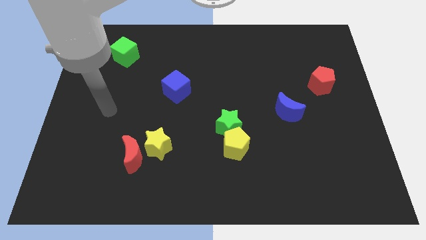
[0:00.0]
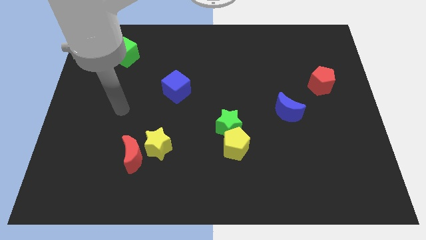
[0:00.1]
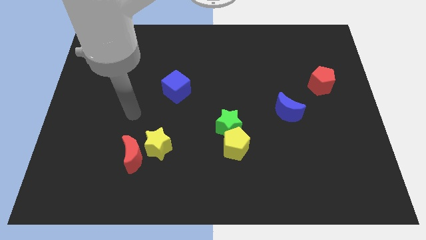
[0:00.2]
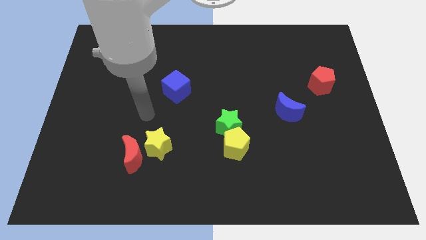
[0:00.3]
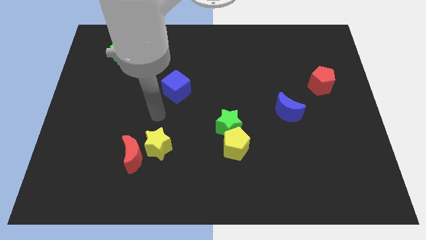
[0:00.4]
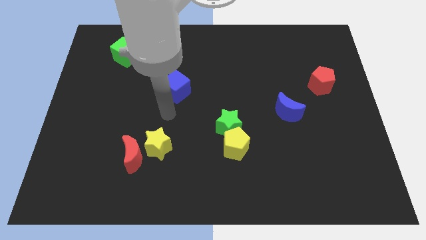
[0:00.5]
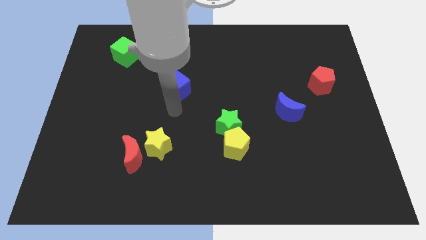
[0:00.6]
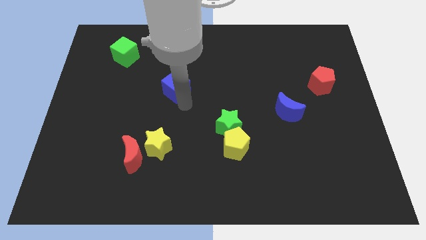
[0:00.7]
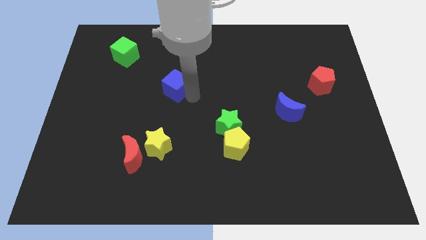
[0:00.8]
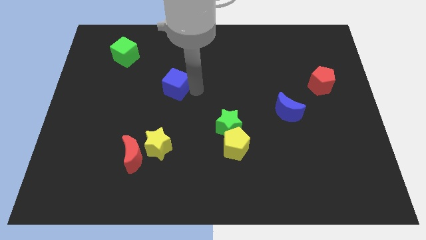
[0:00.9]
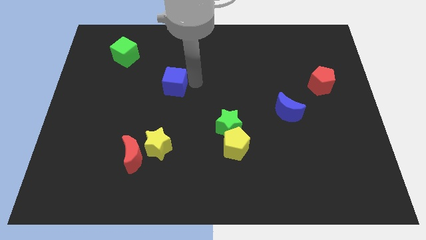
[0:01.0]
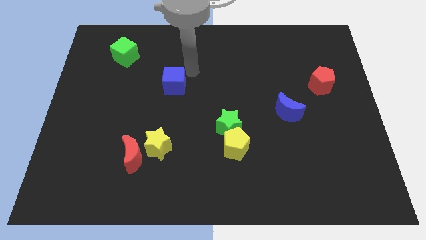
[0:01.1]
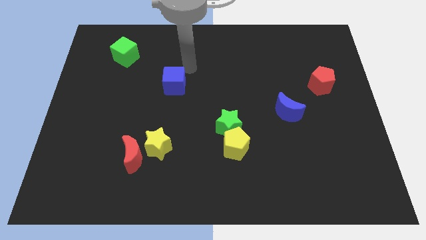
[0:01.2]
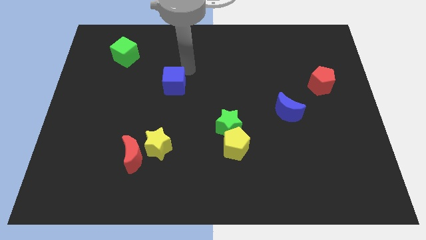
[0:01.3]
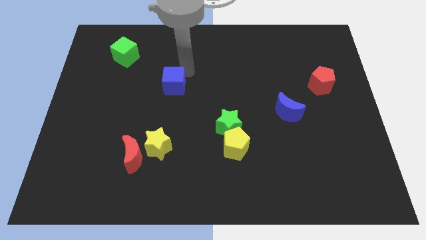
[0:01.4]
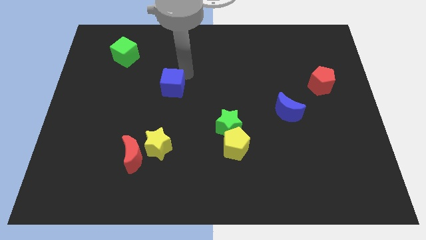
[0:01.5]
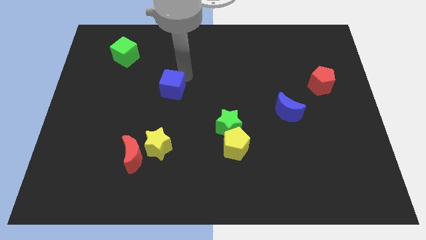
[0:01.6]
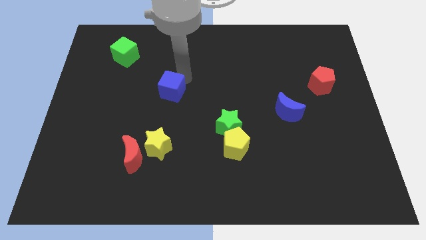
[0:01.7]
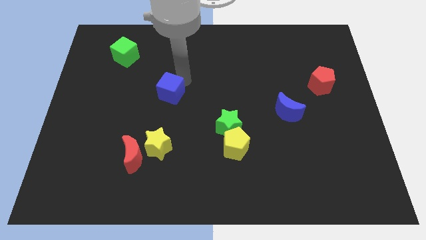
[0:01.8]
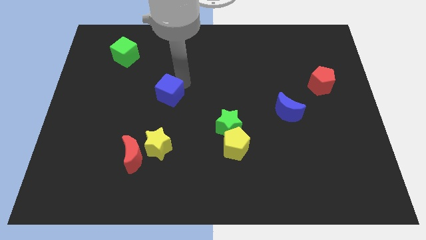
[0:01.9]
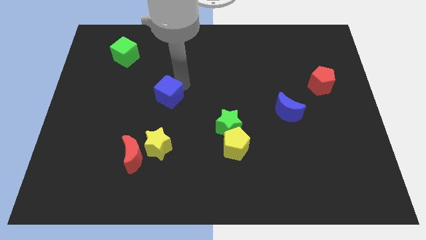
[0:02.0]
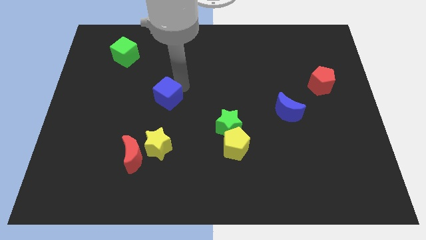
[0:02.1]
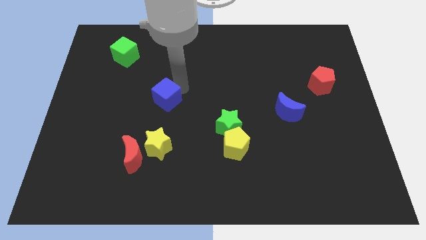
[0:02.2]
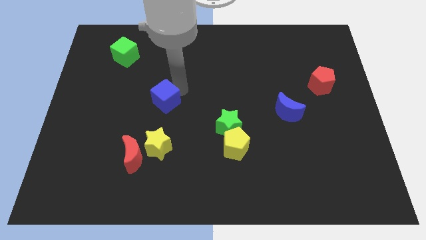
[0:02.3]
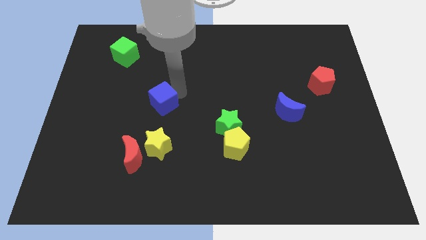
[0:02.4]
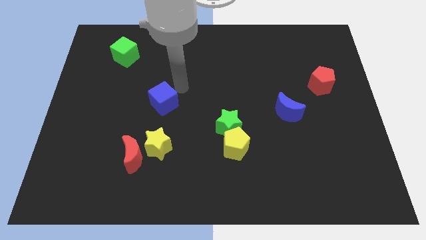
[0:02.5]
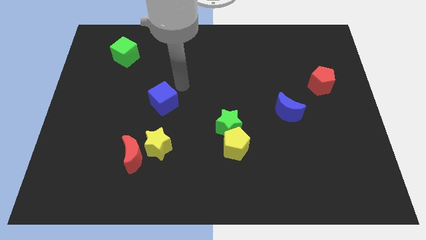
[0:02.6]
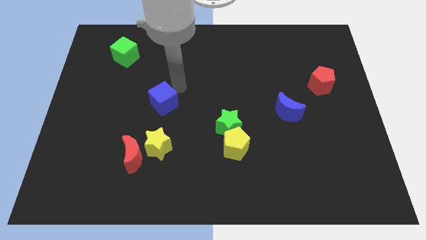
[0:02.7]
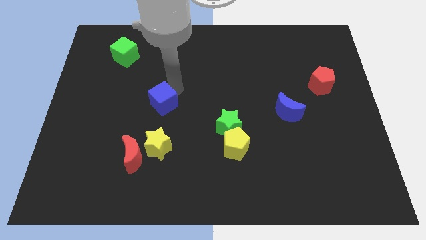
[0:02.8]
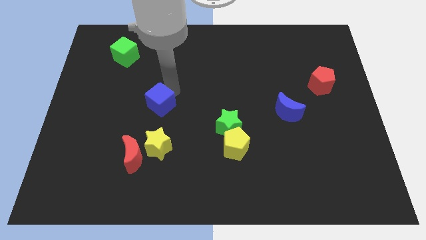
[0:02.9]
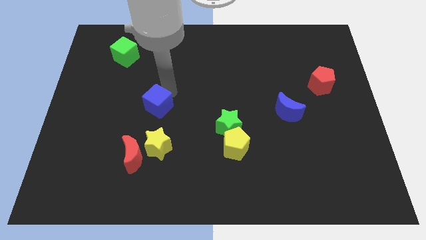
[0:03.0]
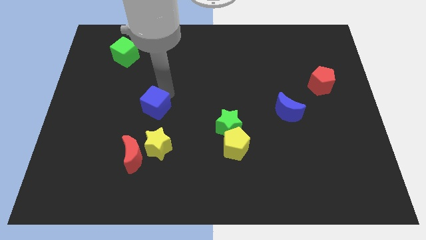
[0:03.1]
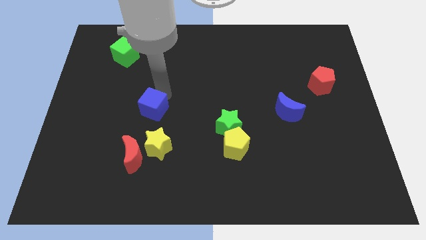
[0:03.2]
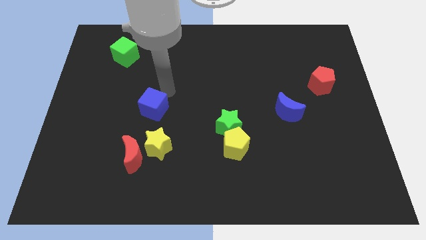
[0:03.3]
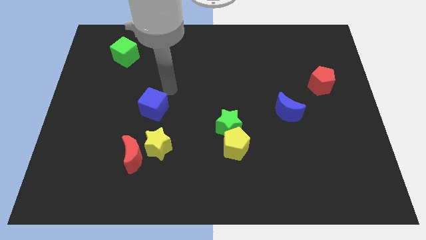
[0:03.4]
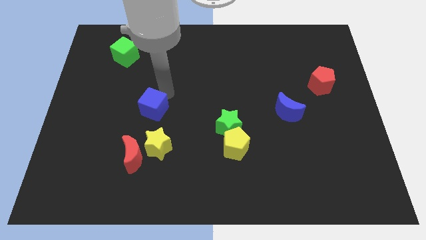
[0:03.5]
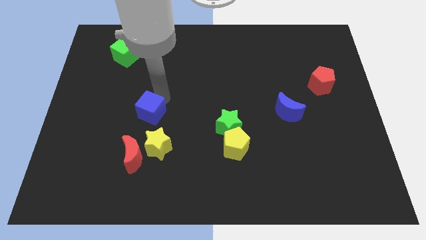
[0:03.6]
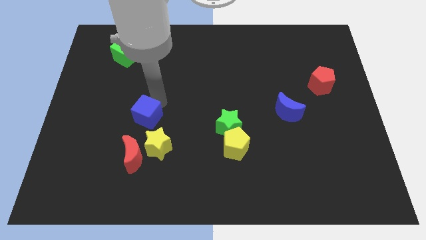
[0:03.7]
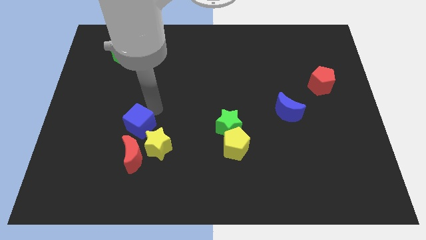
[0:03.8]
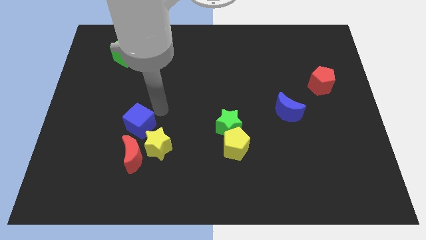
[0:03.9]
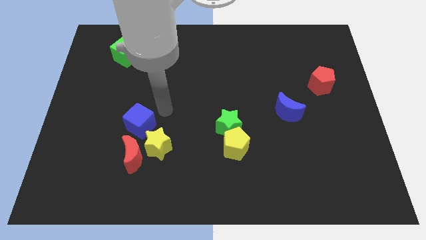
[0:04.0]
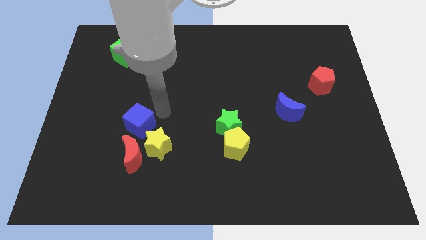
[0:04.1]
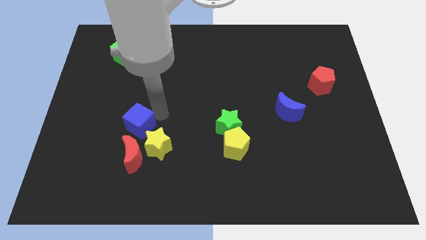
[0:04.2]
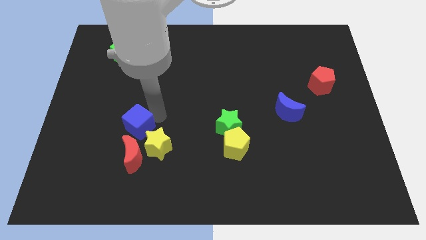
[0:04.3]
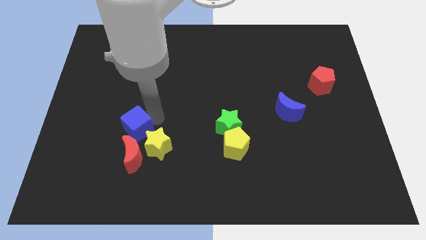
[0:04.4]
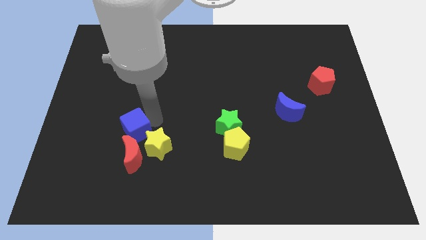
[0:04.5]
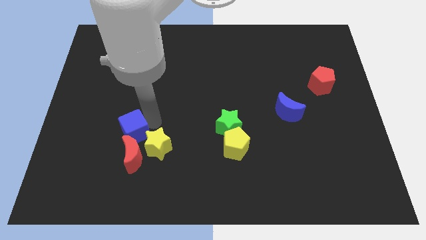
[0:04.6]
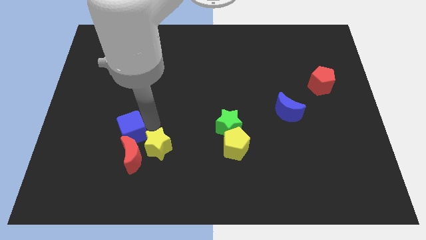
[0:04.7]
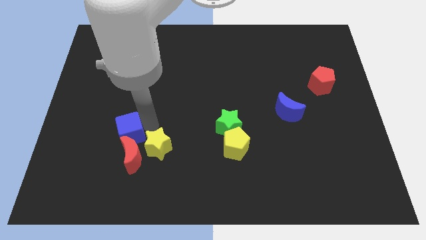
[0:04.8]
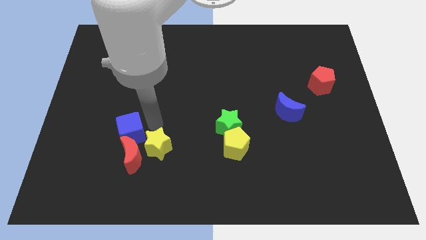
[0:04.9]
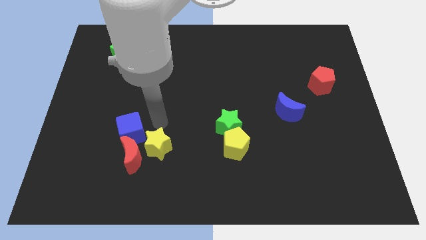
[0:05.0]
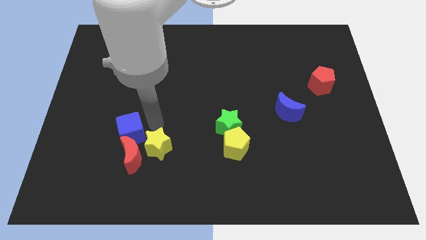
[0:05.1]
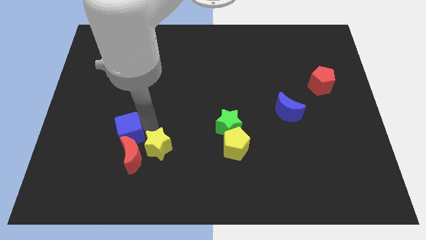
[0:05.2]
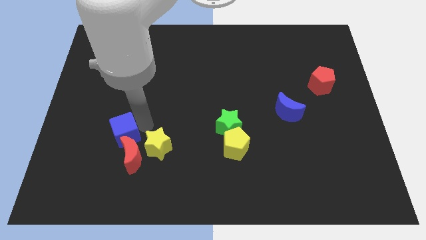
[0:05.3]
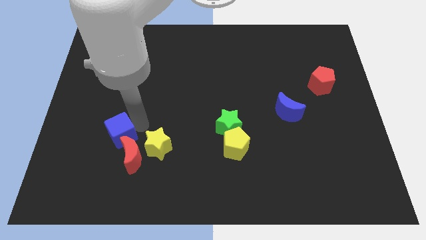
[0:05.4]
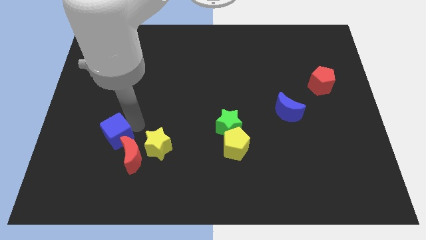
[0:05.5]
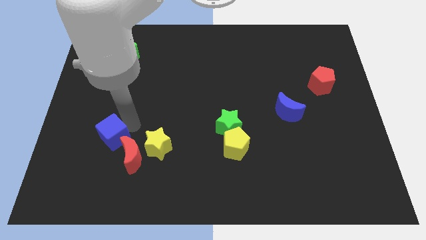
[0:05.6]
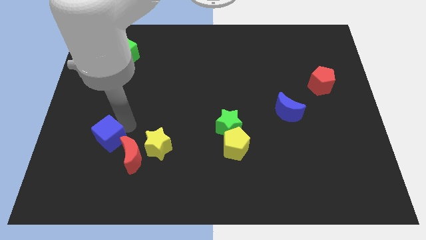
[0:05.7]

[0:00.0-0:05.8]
push the blue cube left of the red moon

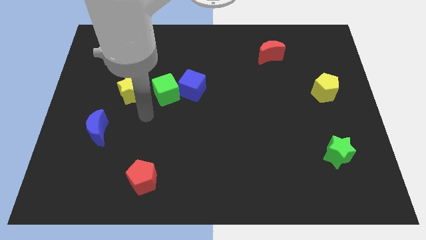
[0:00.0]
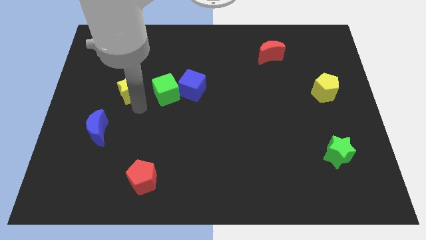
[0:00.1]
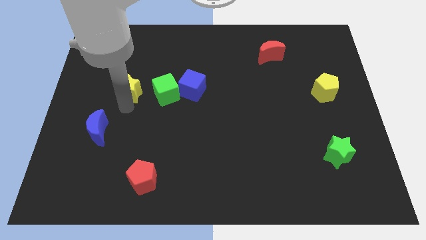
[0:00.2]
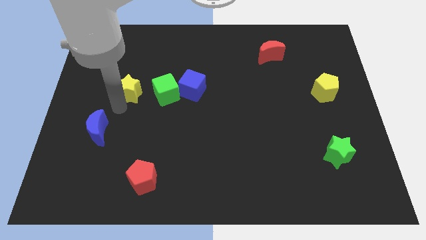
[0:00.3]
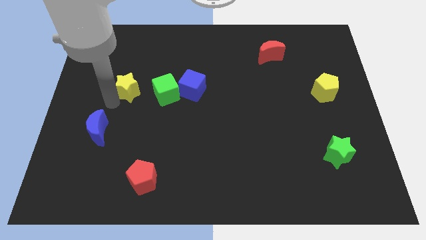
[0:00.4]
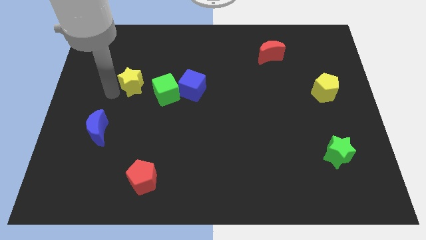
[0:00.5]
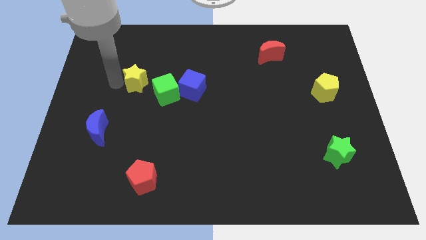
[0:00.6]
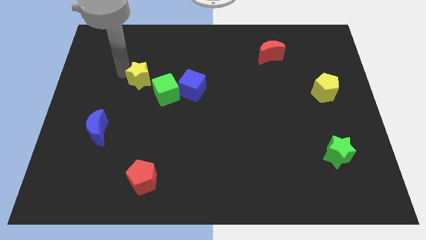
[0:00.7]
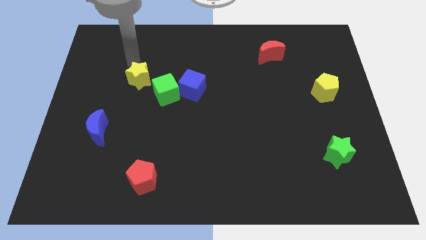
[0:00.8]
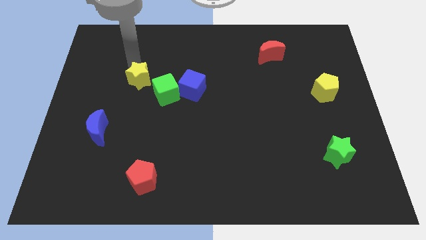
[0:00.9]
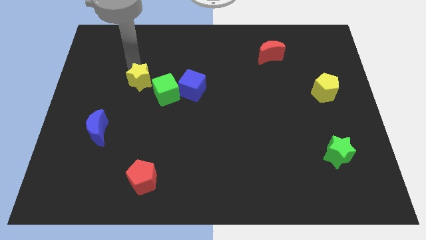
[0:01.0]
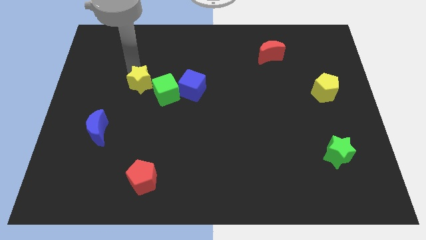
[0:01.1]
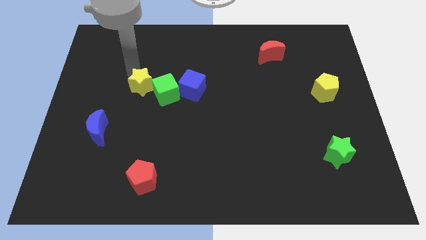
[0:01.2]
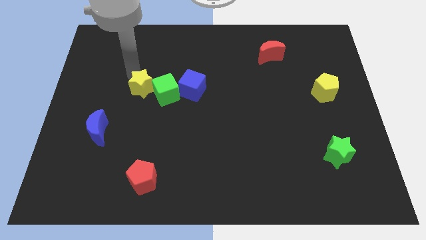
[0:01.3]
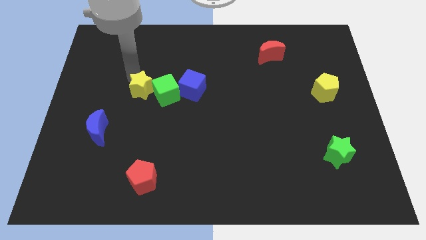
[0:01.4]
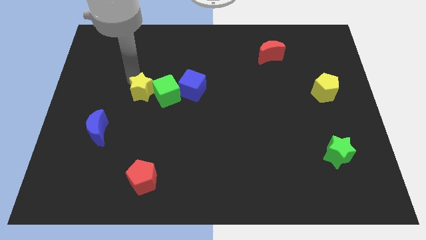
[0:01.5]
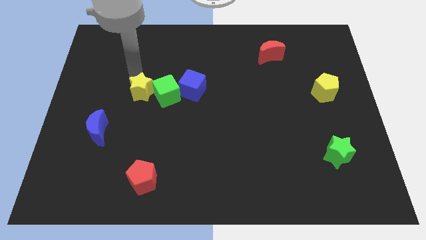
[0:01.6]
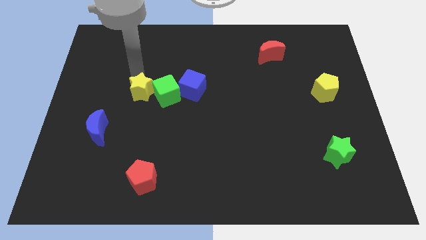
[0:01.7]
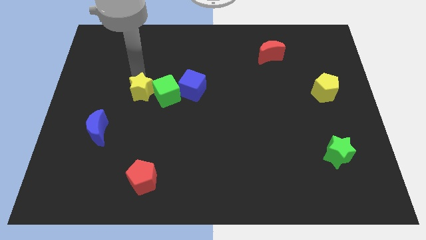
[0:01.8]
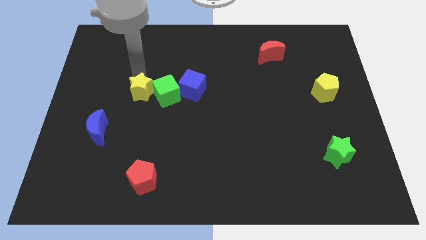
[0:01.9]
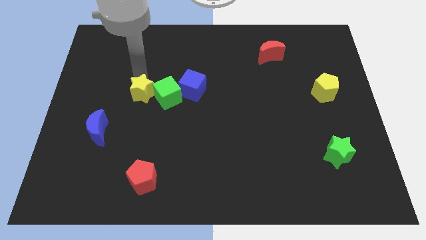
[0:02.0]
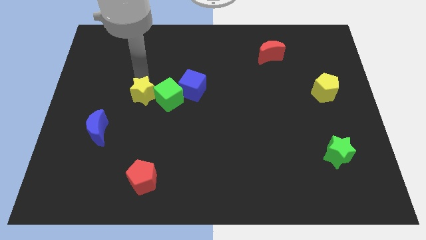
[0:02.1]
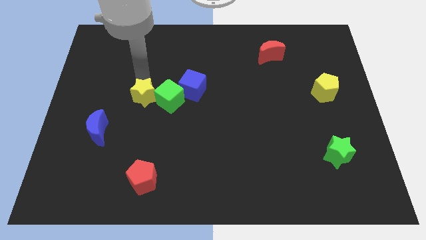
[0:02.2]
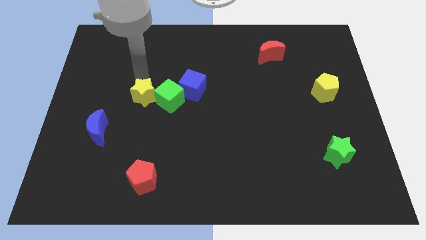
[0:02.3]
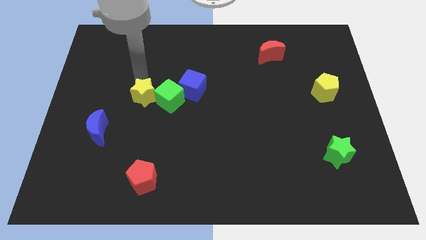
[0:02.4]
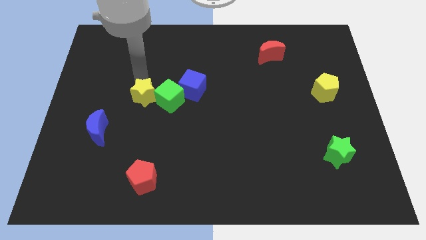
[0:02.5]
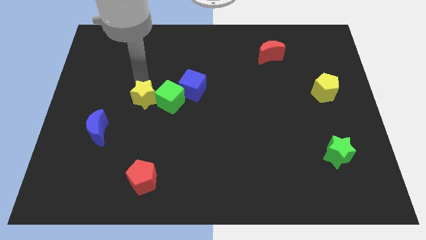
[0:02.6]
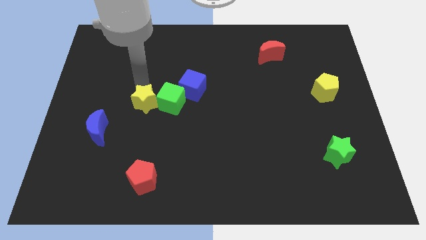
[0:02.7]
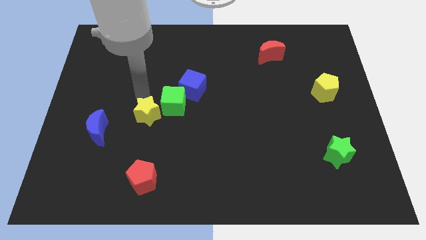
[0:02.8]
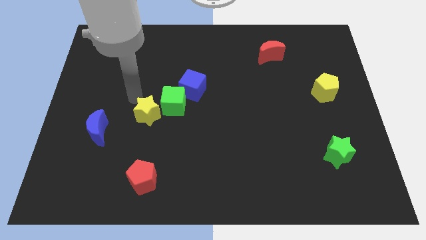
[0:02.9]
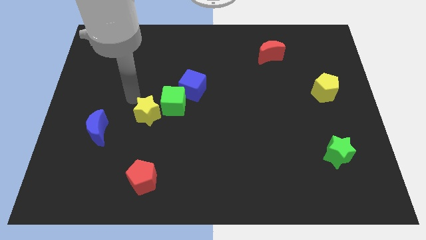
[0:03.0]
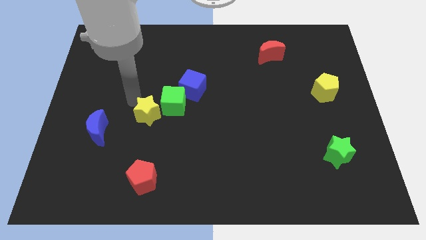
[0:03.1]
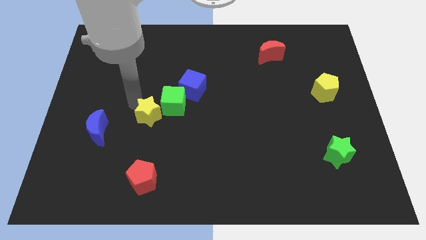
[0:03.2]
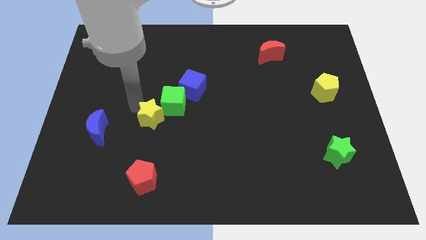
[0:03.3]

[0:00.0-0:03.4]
put the yellow star below the green cube
